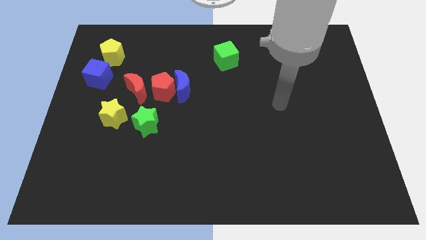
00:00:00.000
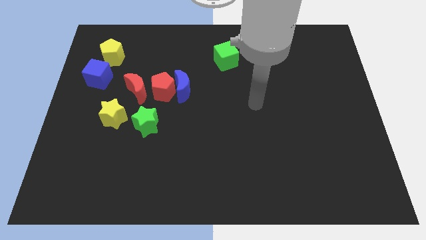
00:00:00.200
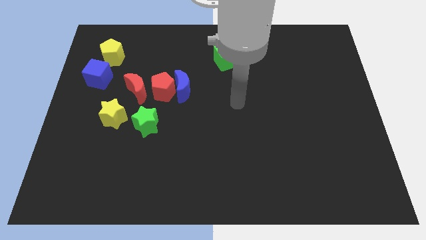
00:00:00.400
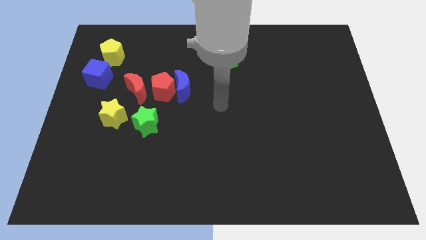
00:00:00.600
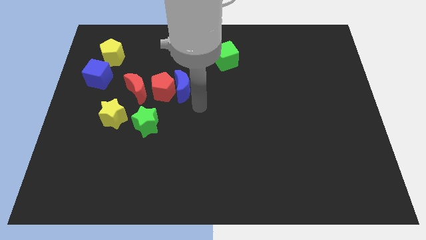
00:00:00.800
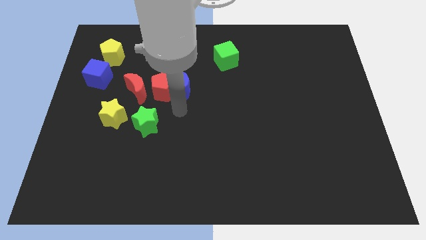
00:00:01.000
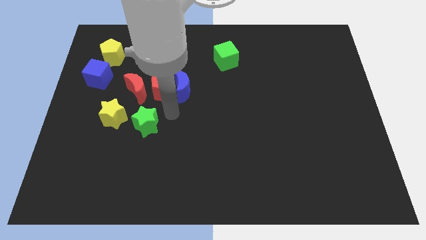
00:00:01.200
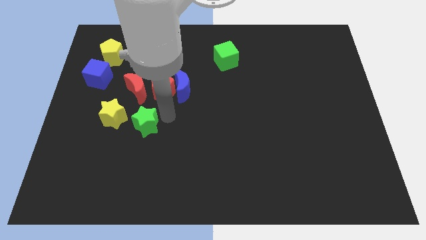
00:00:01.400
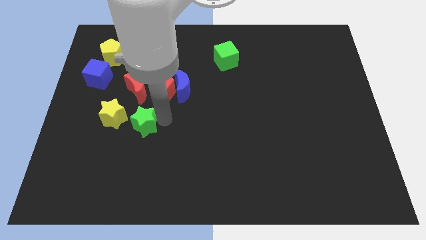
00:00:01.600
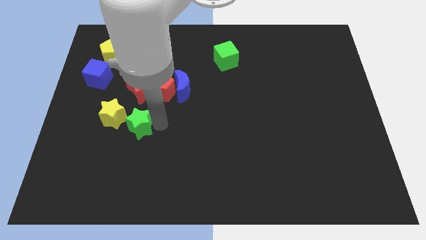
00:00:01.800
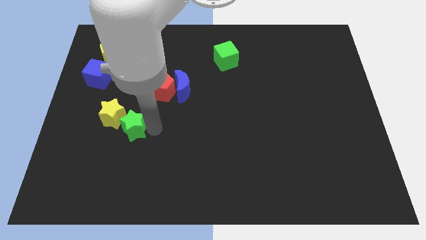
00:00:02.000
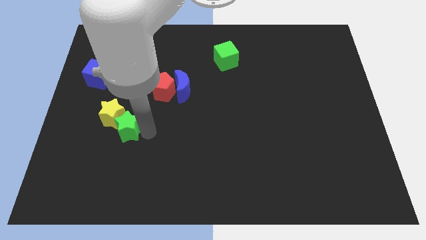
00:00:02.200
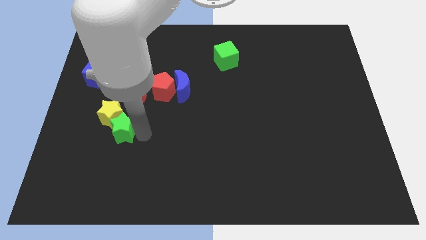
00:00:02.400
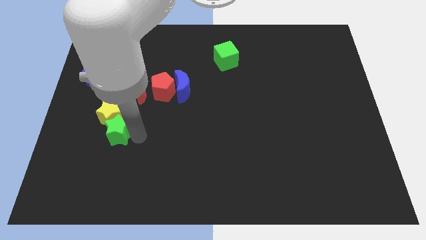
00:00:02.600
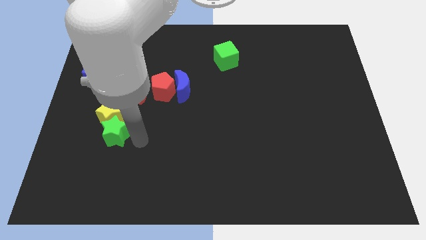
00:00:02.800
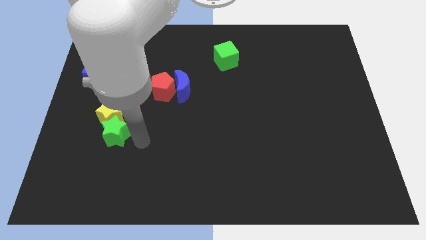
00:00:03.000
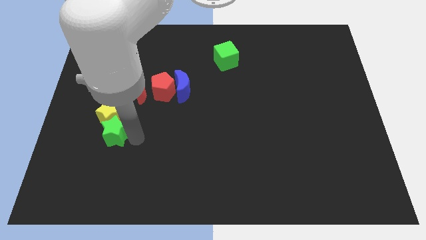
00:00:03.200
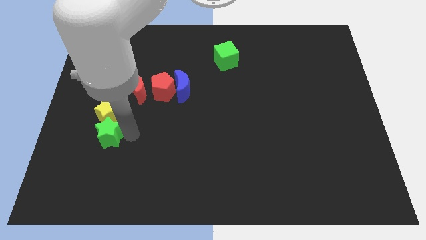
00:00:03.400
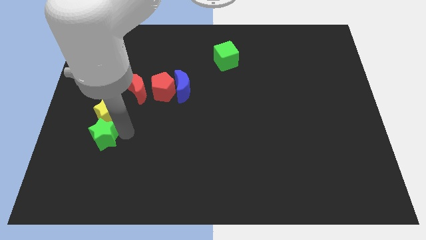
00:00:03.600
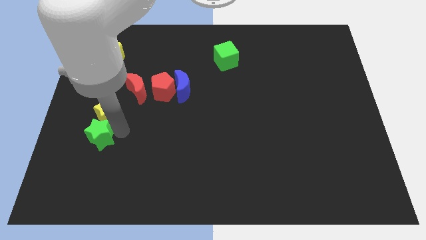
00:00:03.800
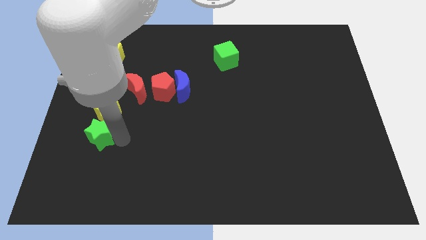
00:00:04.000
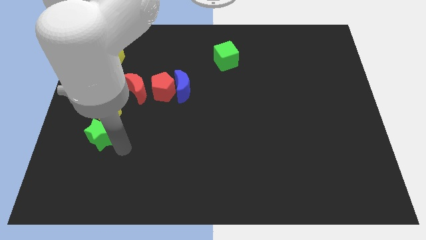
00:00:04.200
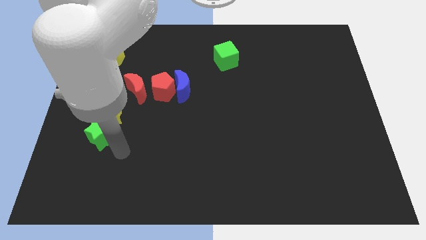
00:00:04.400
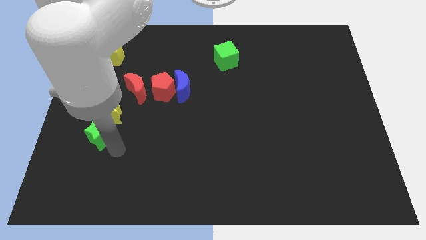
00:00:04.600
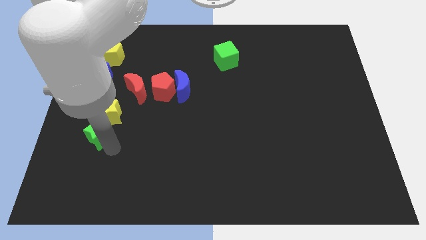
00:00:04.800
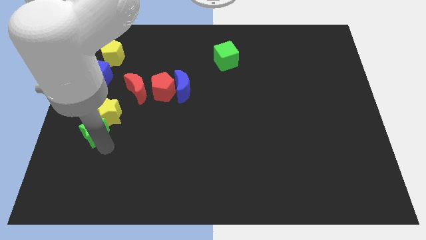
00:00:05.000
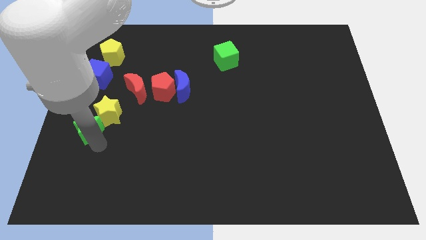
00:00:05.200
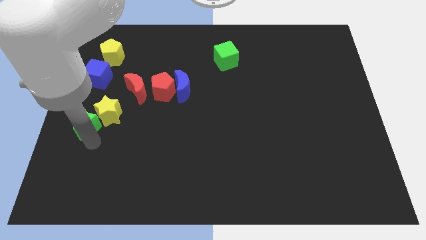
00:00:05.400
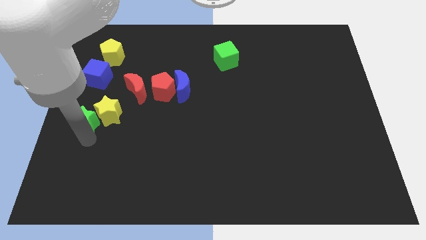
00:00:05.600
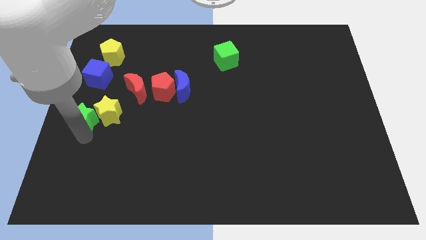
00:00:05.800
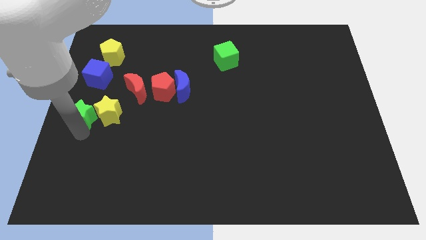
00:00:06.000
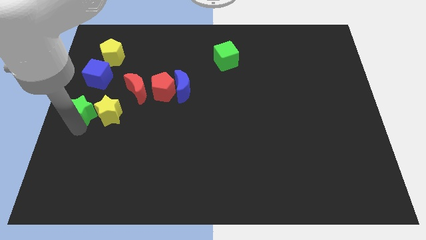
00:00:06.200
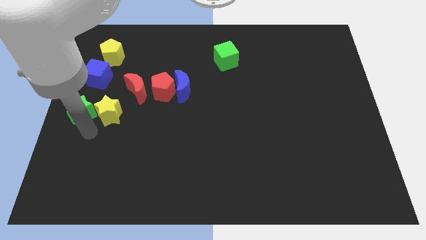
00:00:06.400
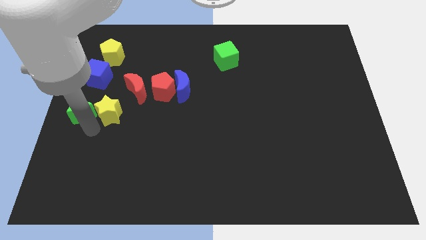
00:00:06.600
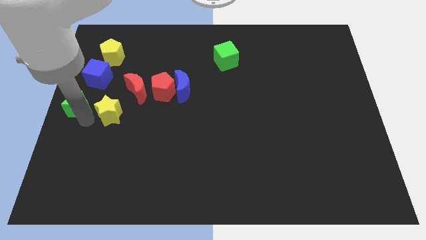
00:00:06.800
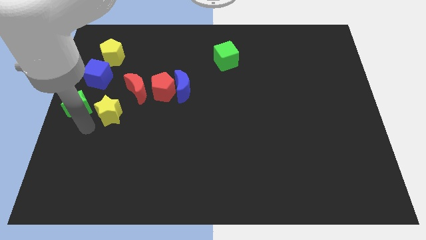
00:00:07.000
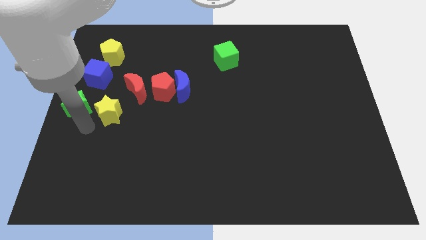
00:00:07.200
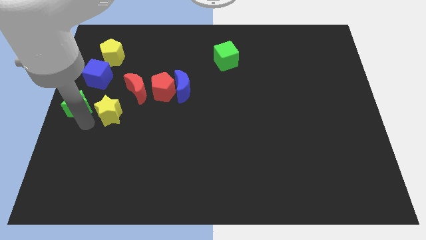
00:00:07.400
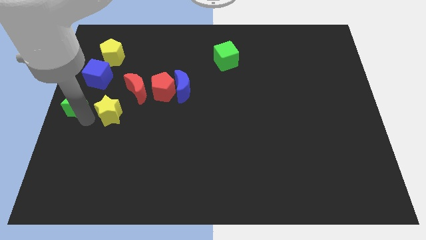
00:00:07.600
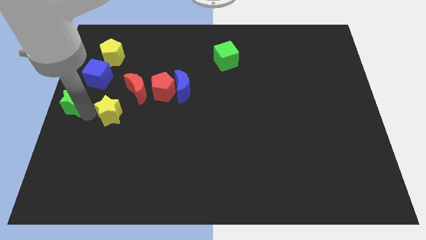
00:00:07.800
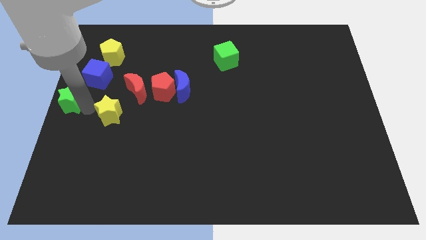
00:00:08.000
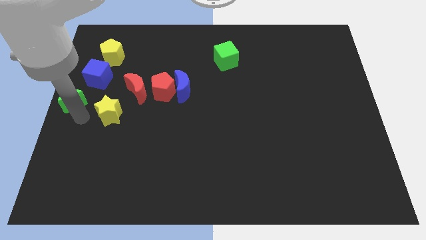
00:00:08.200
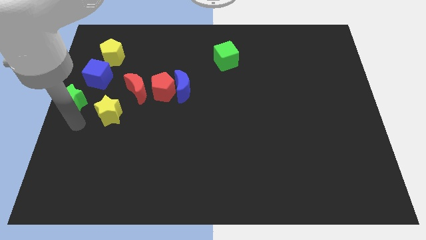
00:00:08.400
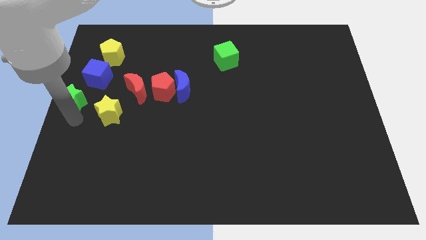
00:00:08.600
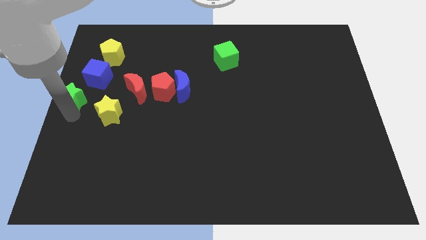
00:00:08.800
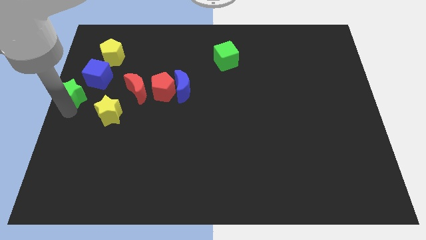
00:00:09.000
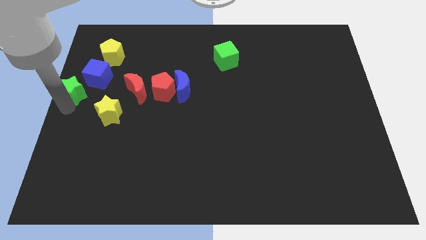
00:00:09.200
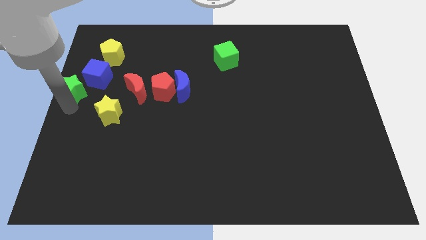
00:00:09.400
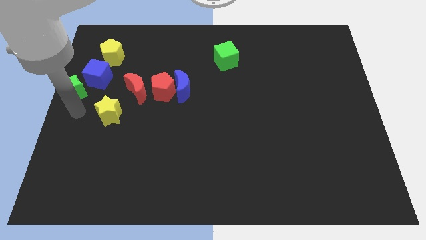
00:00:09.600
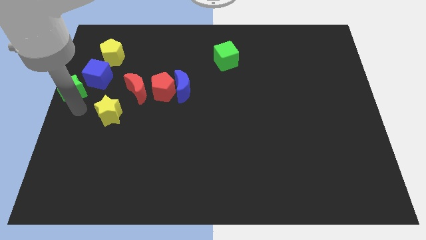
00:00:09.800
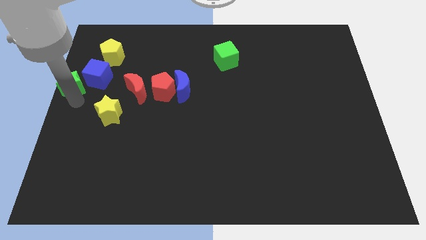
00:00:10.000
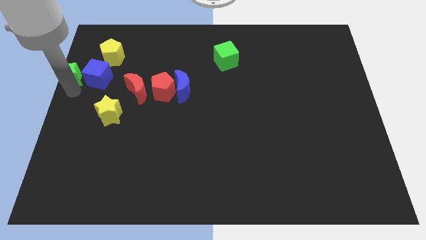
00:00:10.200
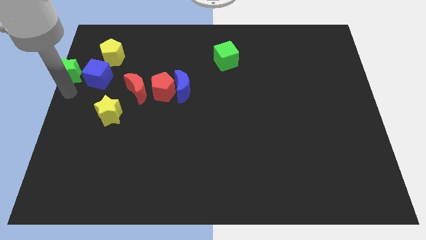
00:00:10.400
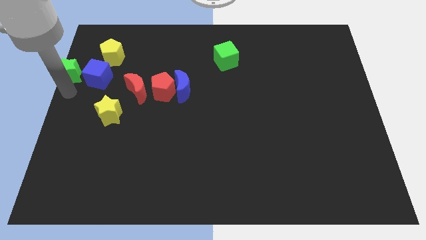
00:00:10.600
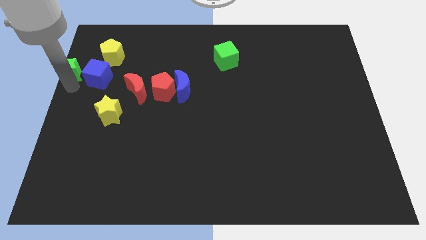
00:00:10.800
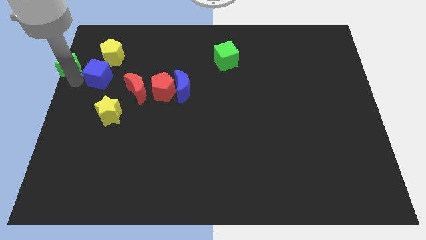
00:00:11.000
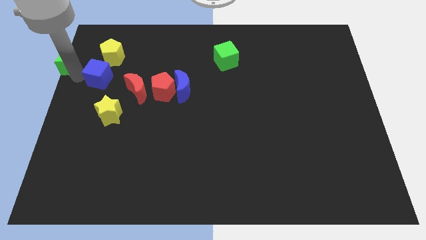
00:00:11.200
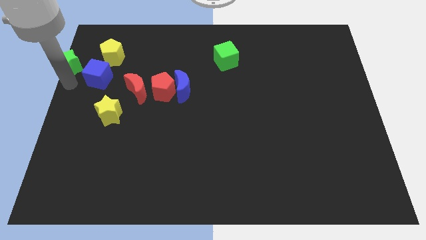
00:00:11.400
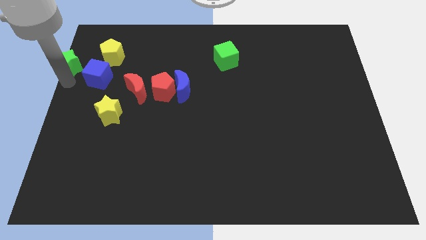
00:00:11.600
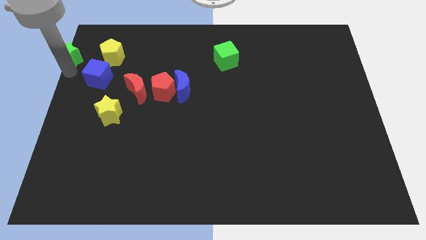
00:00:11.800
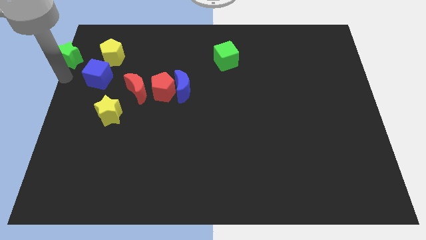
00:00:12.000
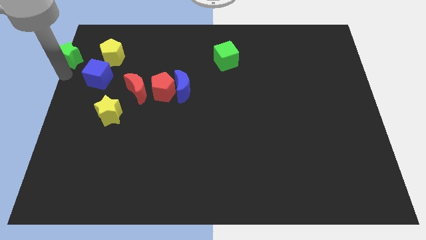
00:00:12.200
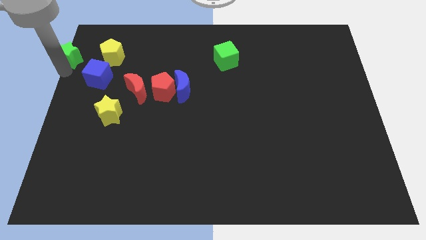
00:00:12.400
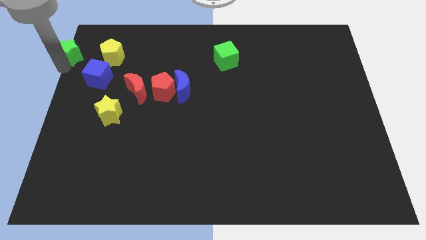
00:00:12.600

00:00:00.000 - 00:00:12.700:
slide the green star to the top left
